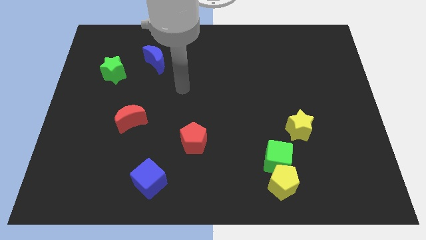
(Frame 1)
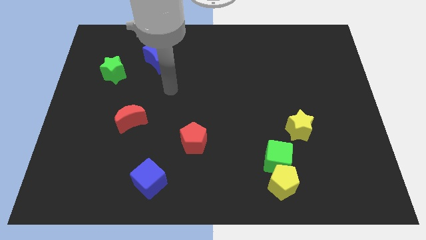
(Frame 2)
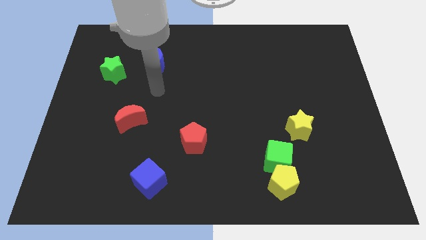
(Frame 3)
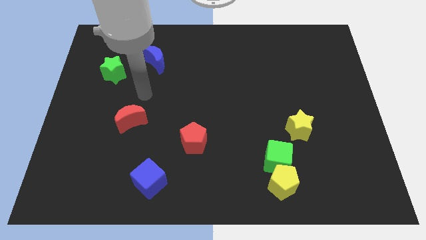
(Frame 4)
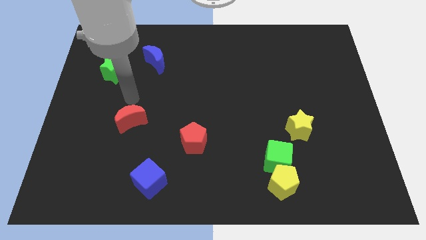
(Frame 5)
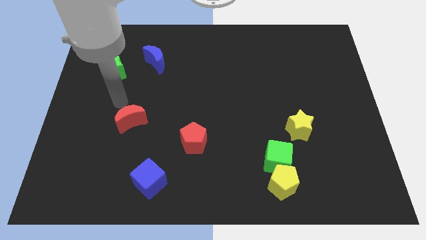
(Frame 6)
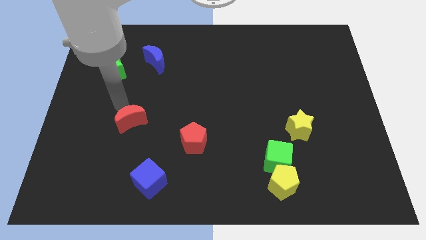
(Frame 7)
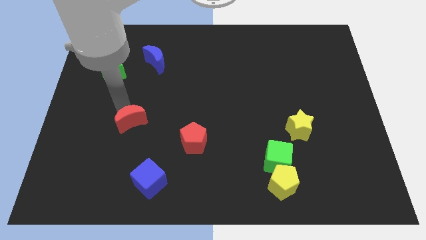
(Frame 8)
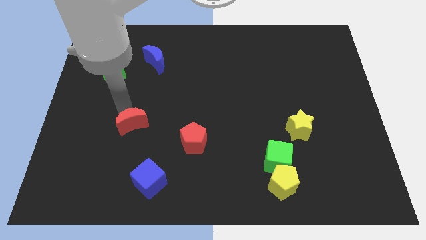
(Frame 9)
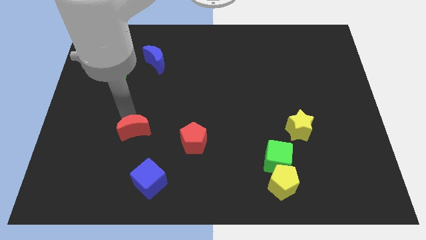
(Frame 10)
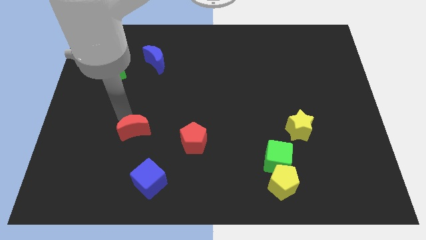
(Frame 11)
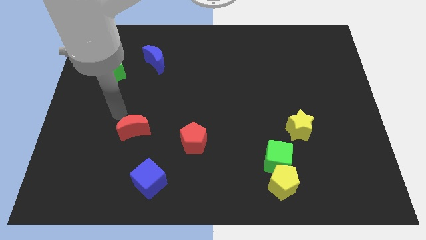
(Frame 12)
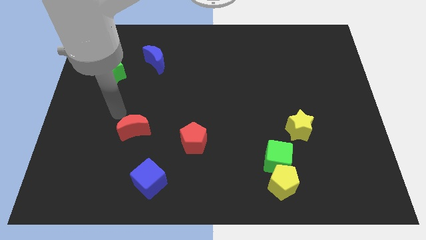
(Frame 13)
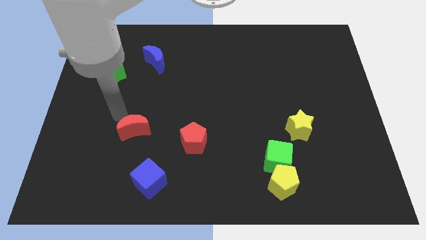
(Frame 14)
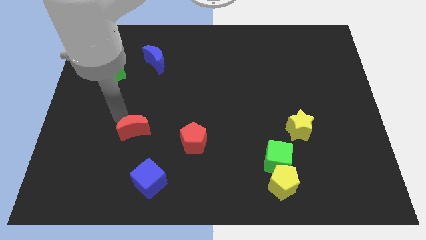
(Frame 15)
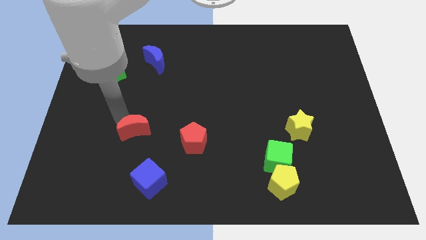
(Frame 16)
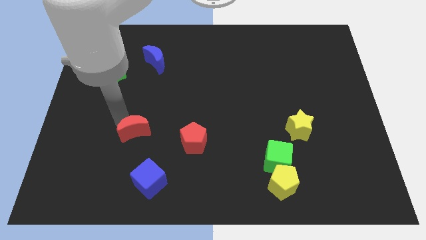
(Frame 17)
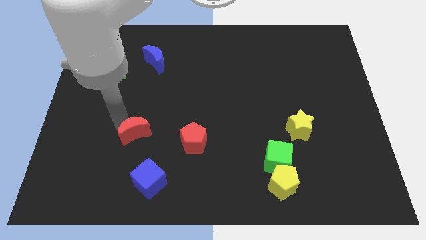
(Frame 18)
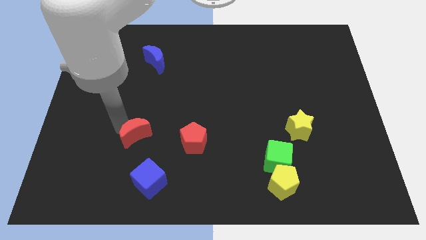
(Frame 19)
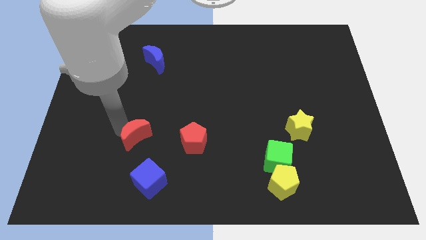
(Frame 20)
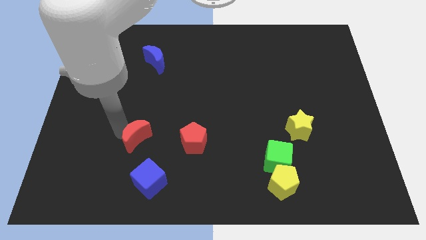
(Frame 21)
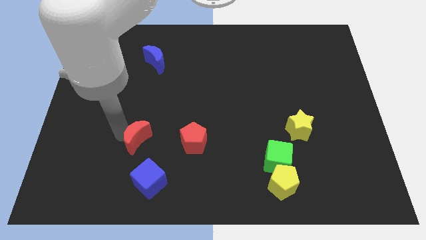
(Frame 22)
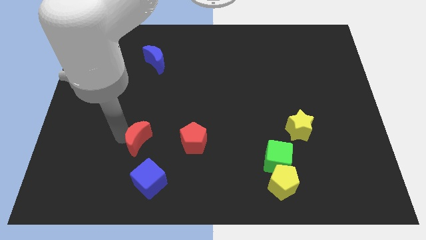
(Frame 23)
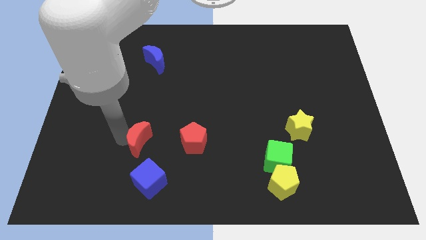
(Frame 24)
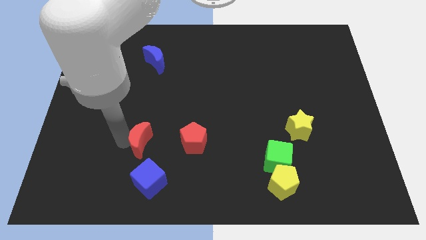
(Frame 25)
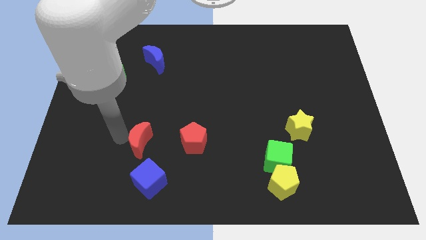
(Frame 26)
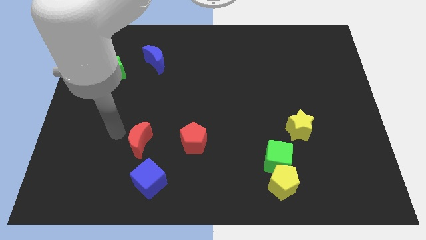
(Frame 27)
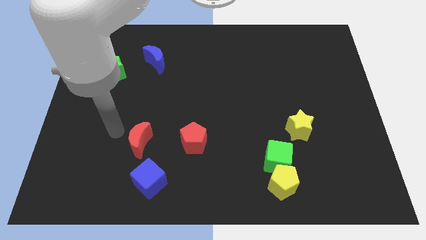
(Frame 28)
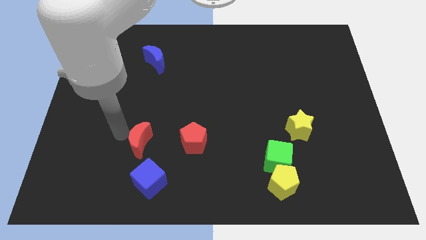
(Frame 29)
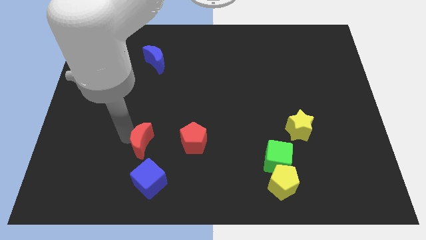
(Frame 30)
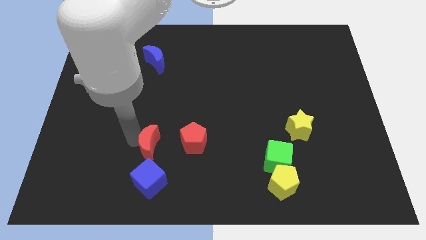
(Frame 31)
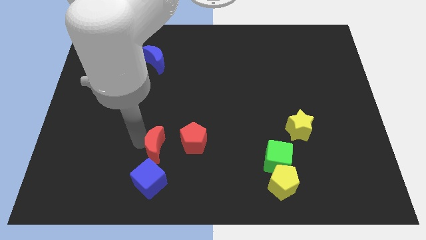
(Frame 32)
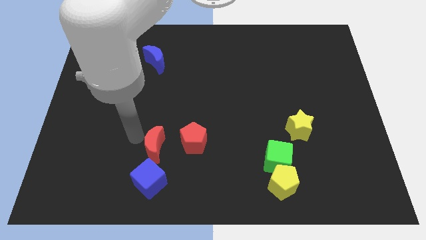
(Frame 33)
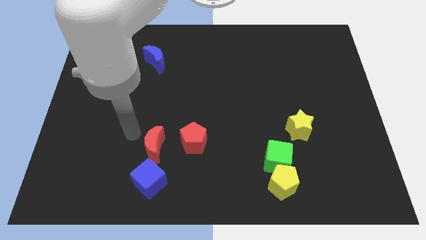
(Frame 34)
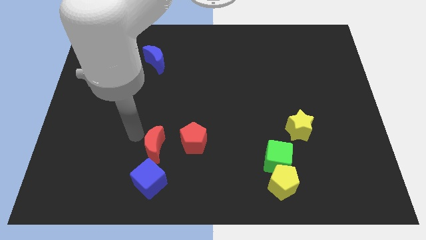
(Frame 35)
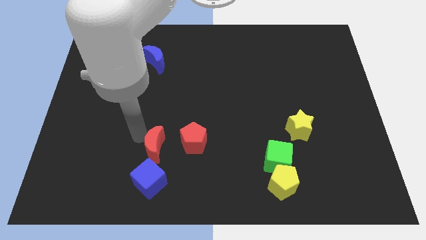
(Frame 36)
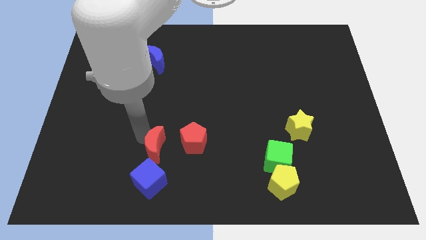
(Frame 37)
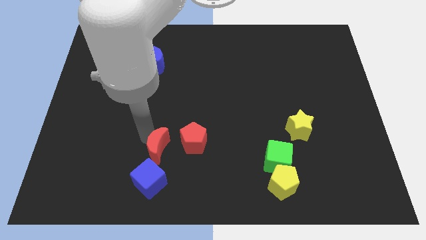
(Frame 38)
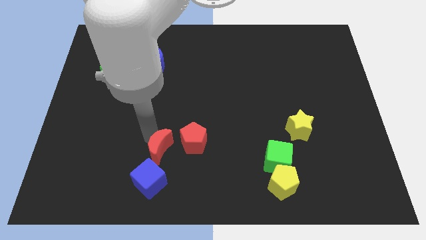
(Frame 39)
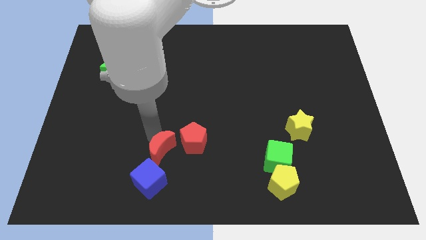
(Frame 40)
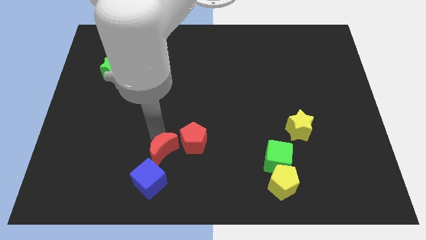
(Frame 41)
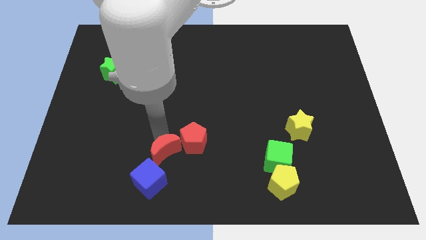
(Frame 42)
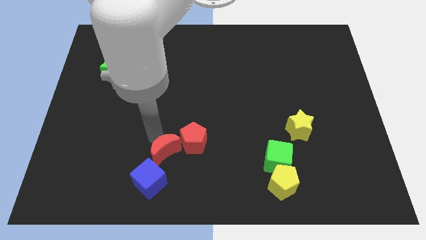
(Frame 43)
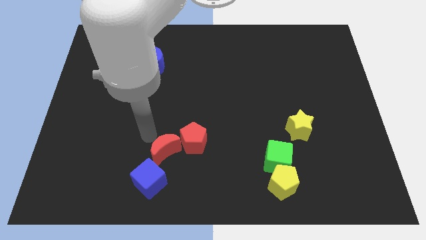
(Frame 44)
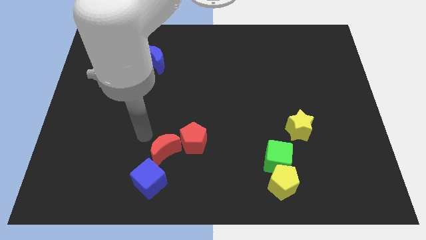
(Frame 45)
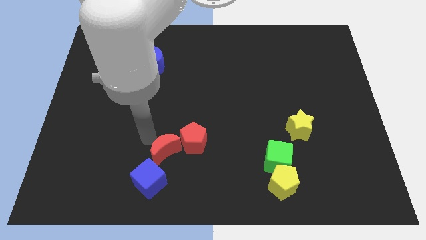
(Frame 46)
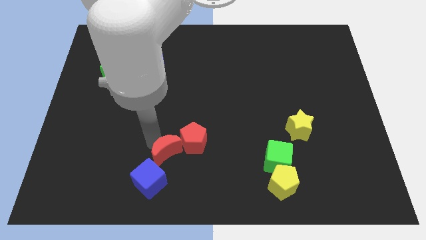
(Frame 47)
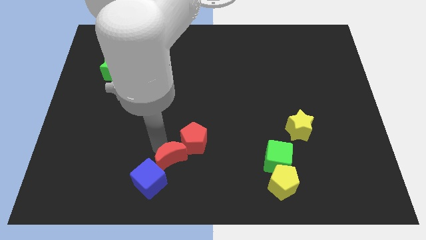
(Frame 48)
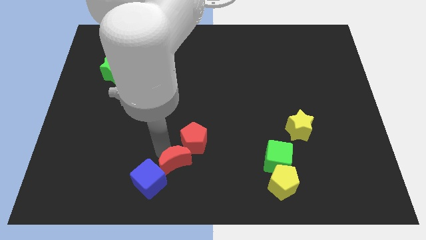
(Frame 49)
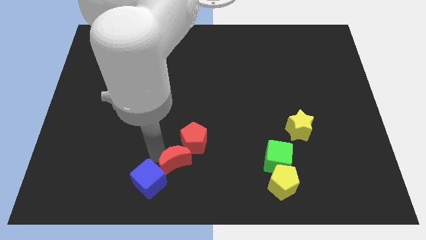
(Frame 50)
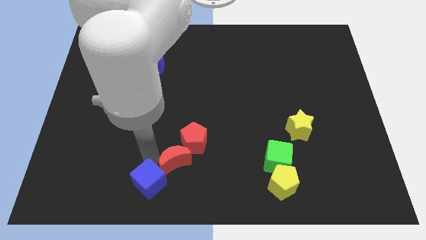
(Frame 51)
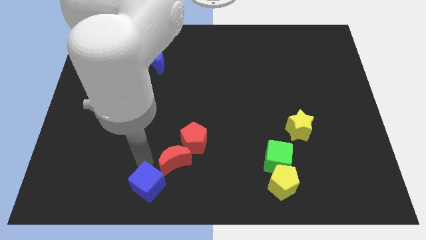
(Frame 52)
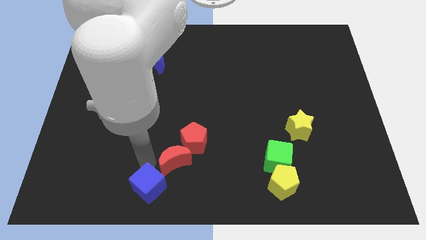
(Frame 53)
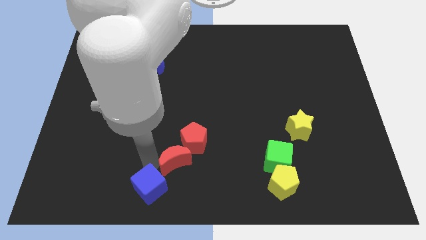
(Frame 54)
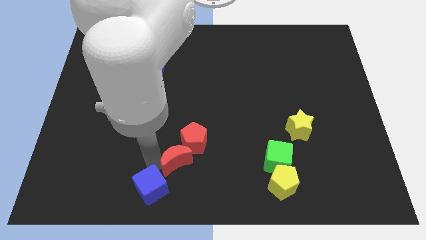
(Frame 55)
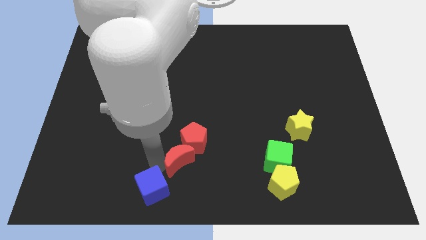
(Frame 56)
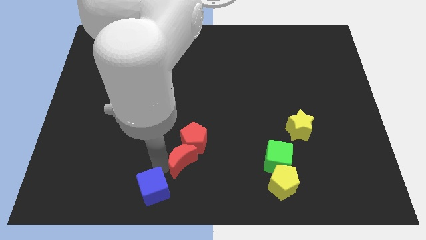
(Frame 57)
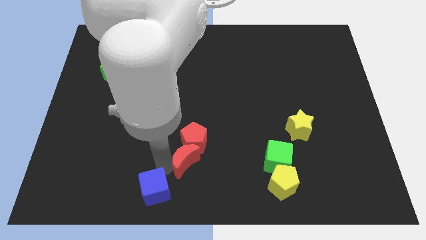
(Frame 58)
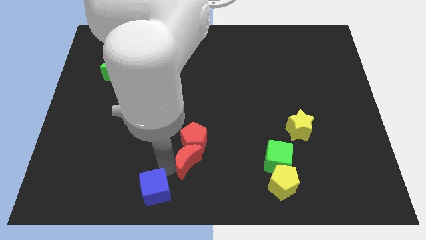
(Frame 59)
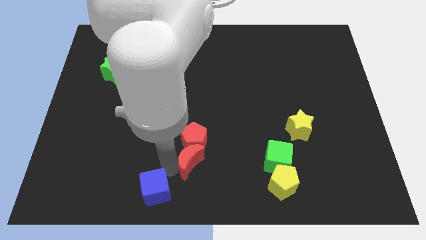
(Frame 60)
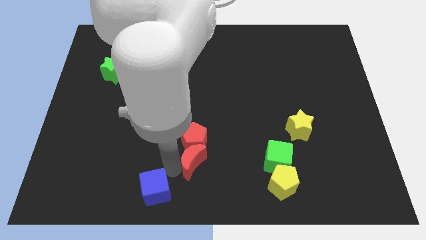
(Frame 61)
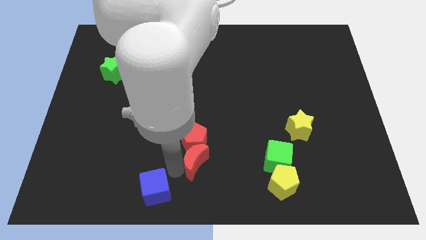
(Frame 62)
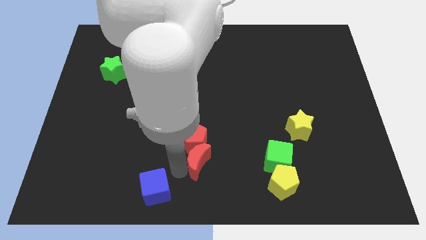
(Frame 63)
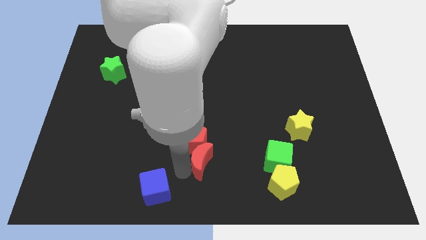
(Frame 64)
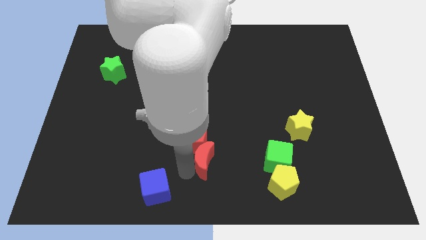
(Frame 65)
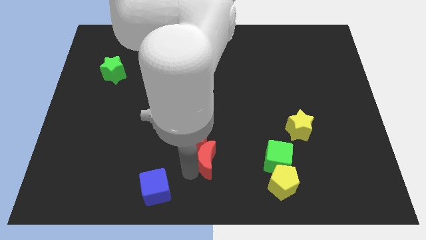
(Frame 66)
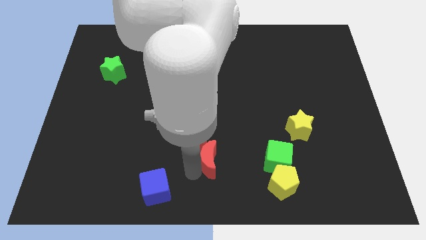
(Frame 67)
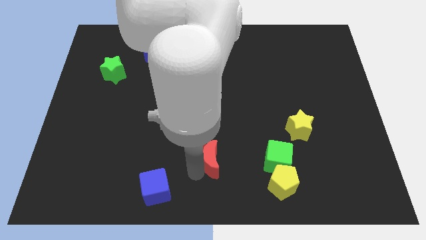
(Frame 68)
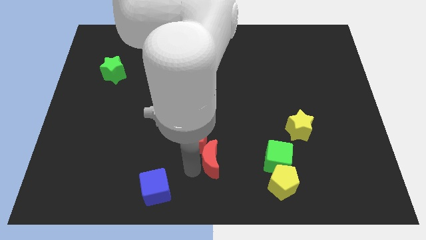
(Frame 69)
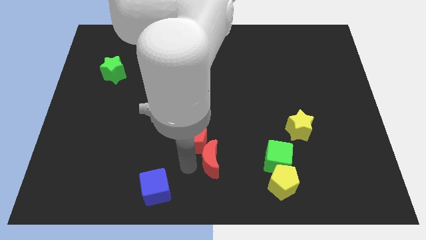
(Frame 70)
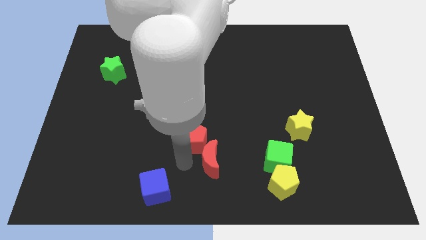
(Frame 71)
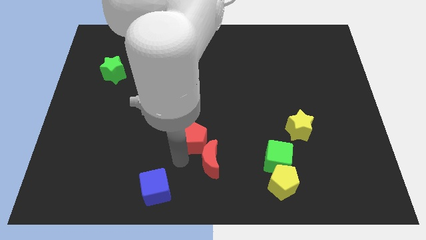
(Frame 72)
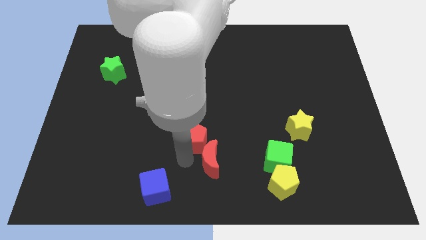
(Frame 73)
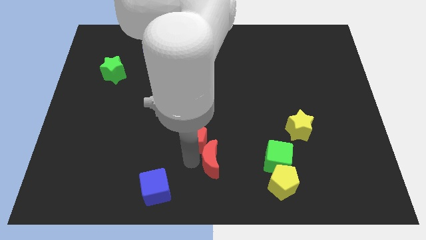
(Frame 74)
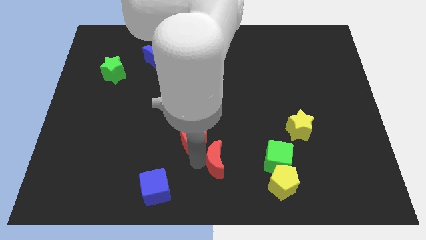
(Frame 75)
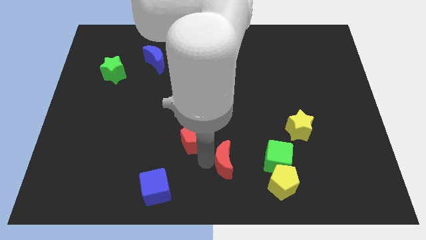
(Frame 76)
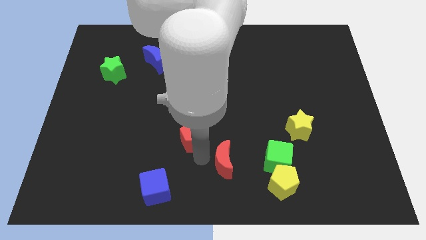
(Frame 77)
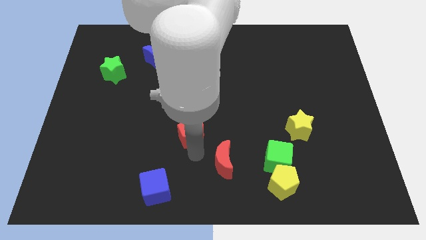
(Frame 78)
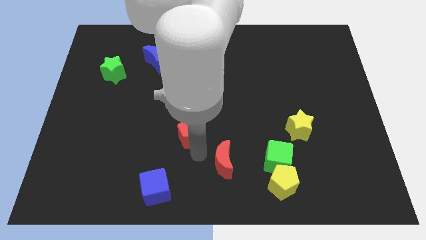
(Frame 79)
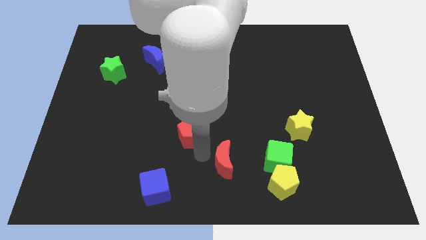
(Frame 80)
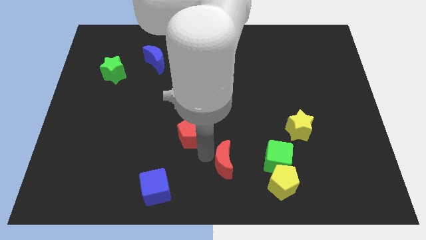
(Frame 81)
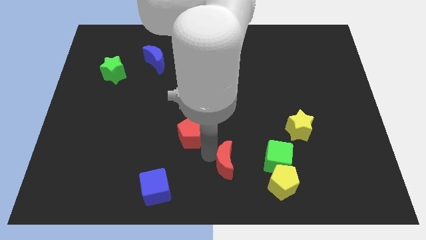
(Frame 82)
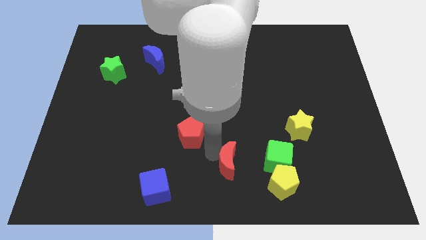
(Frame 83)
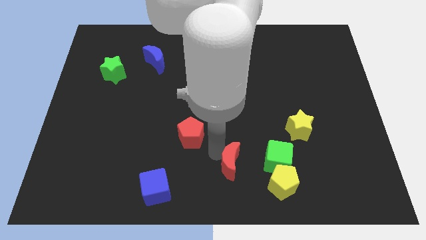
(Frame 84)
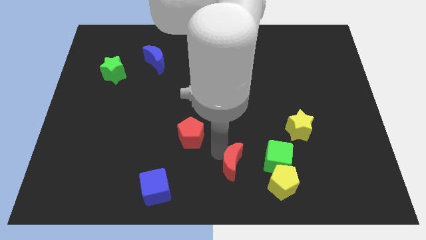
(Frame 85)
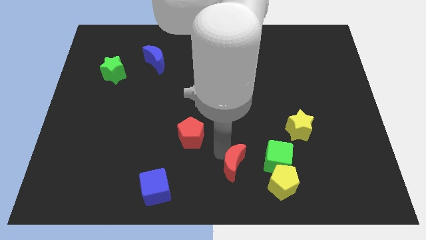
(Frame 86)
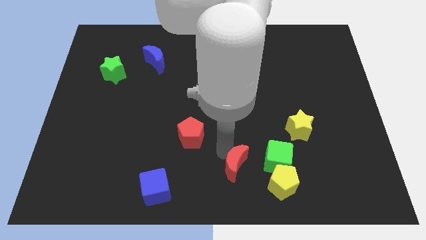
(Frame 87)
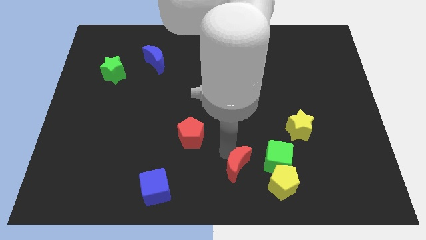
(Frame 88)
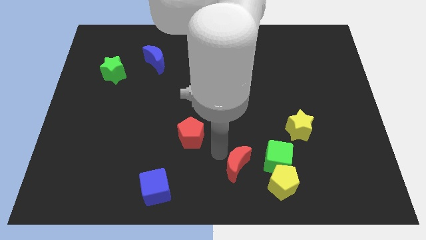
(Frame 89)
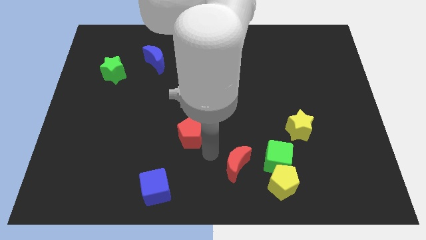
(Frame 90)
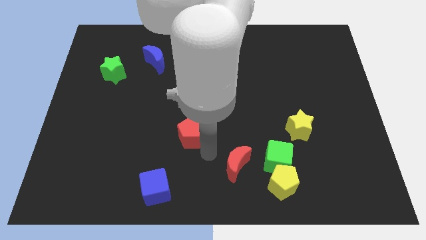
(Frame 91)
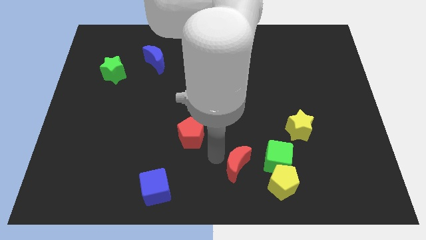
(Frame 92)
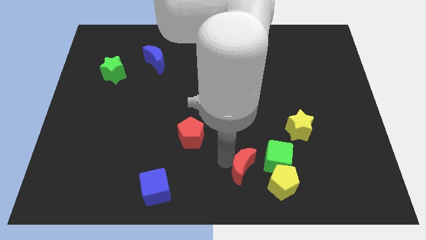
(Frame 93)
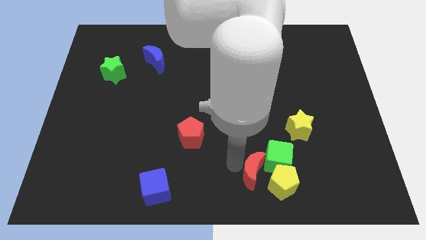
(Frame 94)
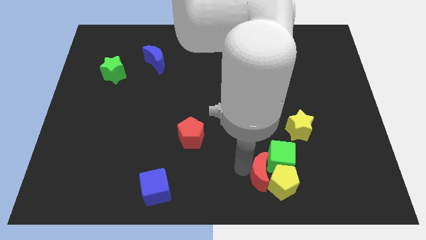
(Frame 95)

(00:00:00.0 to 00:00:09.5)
put the red moon next to the yellow pentagon
